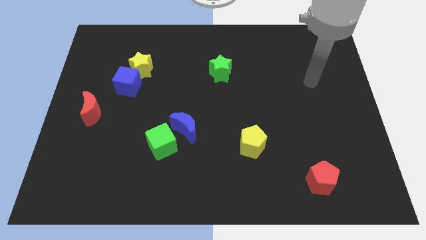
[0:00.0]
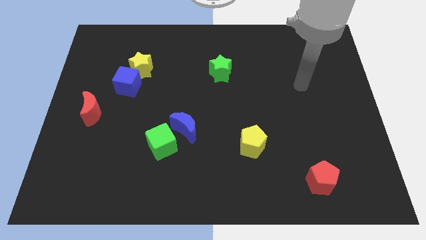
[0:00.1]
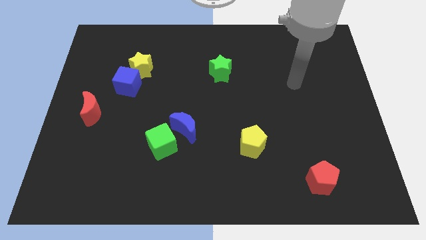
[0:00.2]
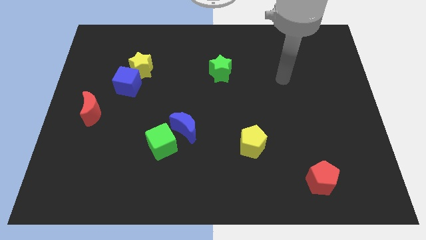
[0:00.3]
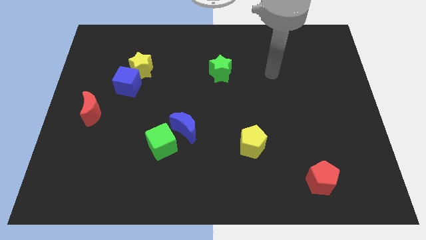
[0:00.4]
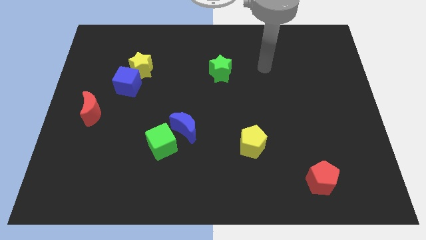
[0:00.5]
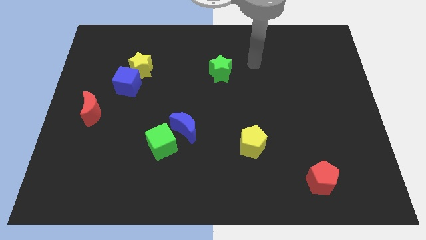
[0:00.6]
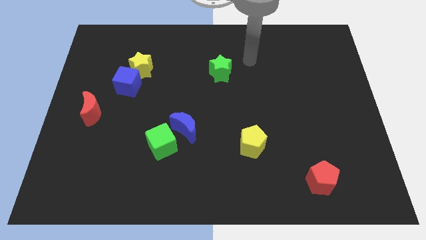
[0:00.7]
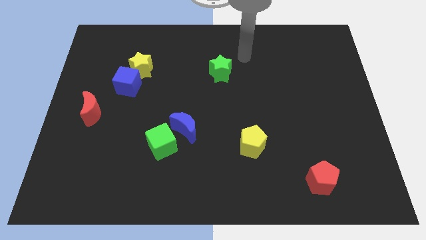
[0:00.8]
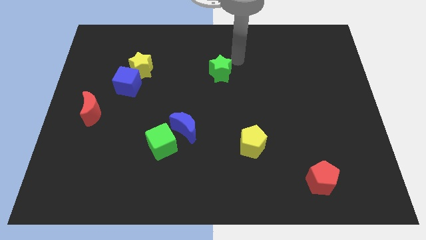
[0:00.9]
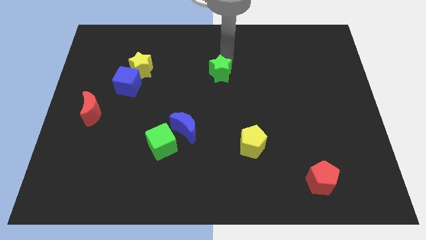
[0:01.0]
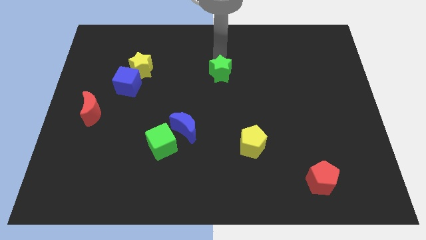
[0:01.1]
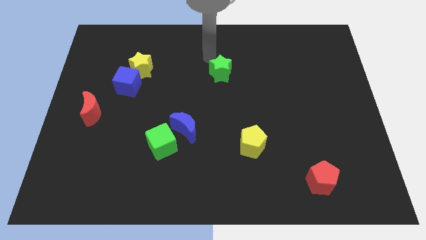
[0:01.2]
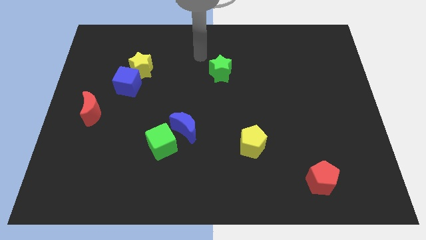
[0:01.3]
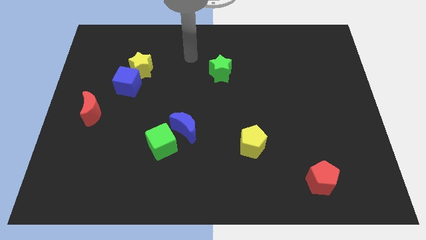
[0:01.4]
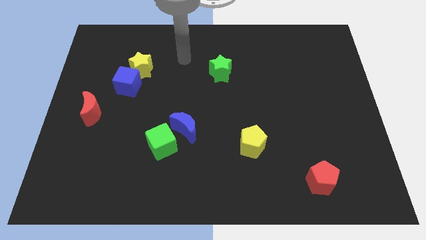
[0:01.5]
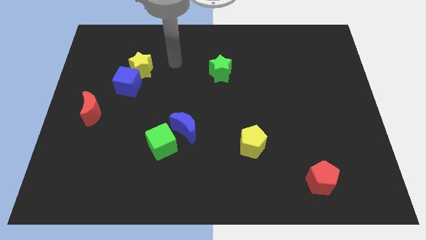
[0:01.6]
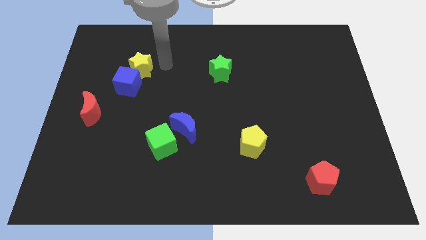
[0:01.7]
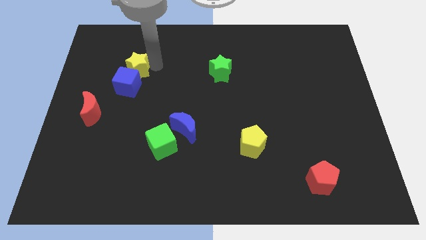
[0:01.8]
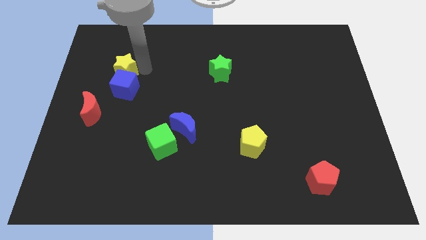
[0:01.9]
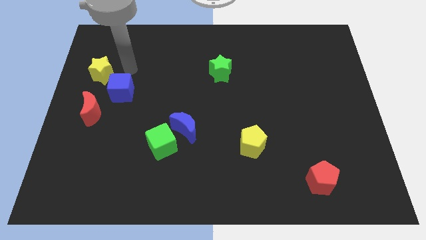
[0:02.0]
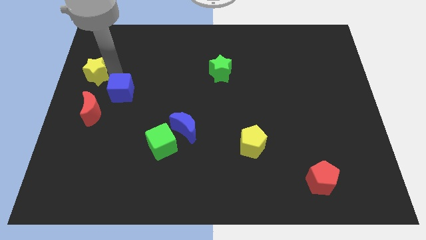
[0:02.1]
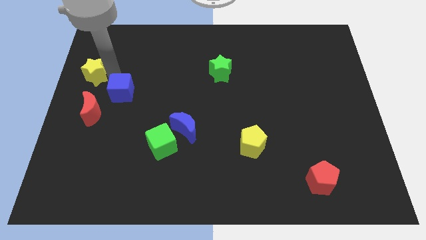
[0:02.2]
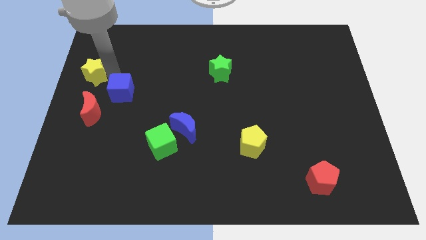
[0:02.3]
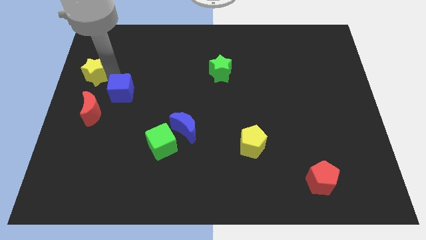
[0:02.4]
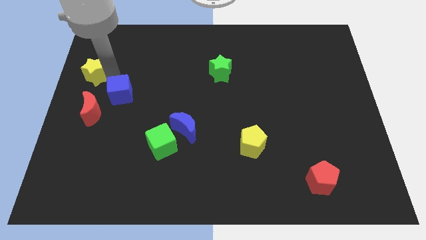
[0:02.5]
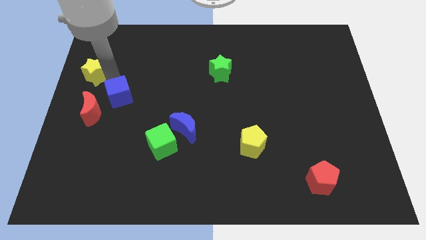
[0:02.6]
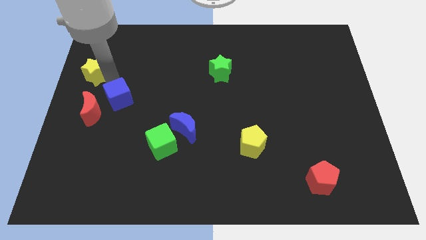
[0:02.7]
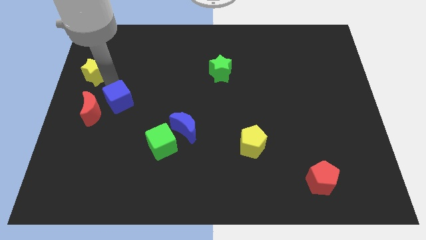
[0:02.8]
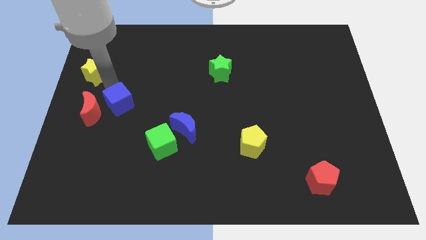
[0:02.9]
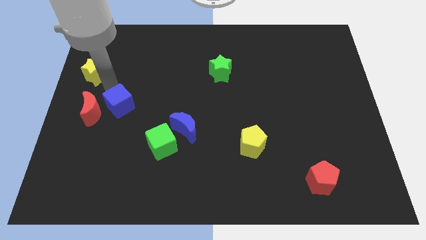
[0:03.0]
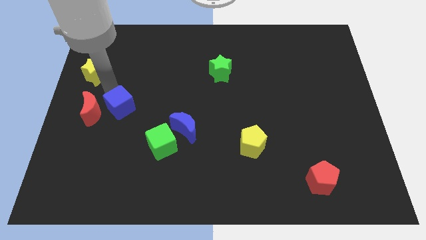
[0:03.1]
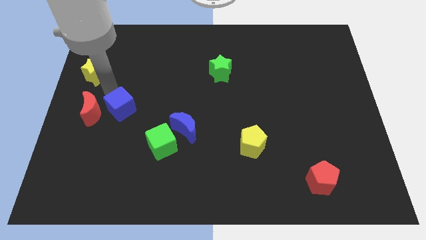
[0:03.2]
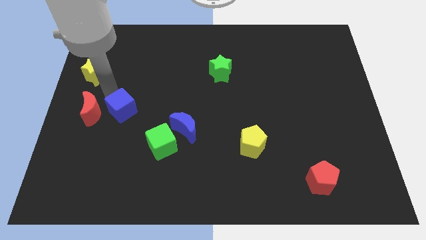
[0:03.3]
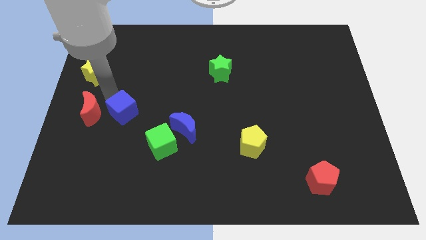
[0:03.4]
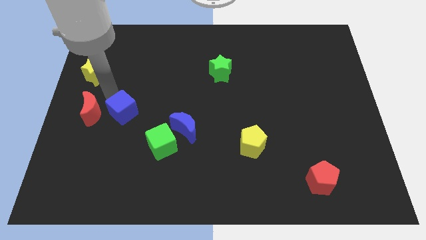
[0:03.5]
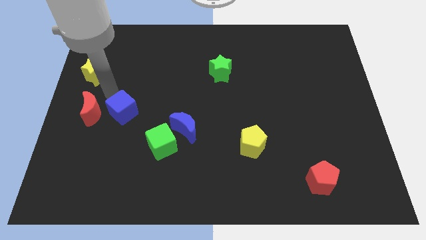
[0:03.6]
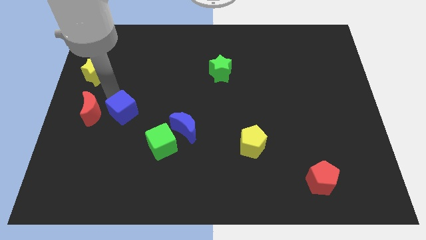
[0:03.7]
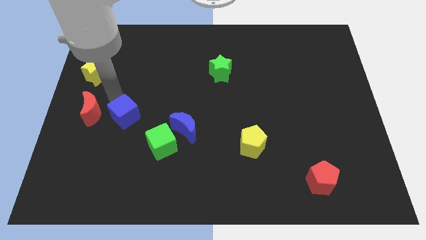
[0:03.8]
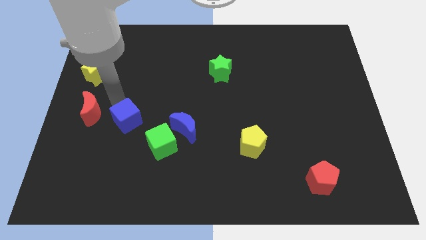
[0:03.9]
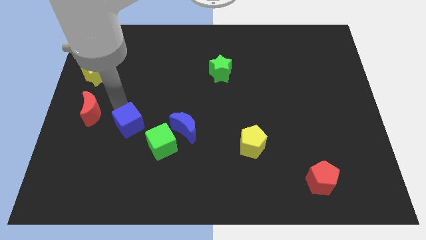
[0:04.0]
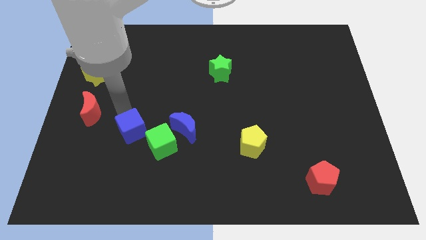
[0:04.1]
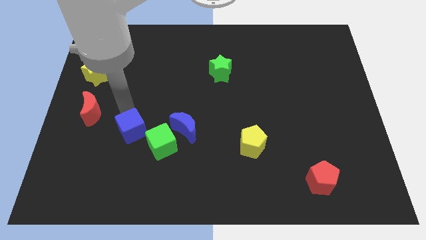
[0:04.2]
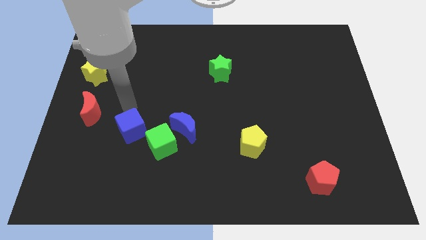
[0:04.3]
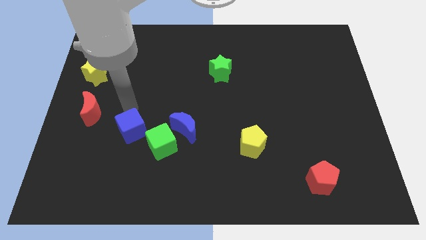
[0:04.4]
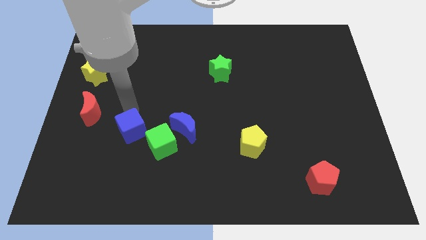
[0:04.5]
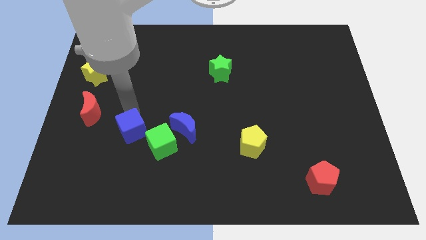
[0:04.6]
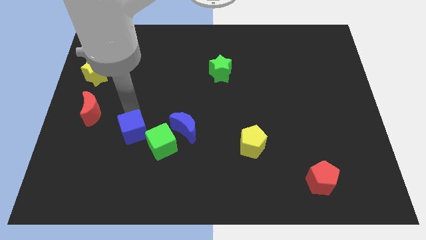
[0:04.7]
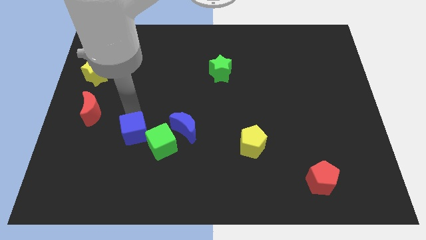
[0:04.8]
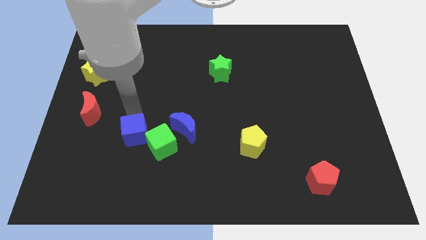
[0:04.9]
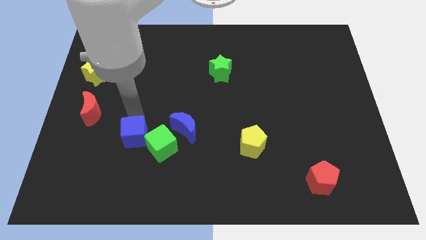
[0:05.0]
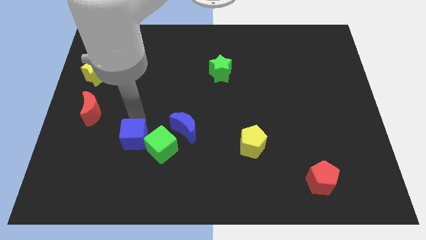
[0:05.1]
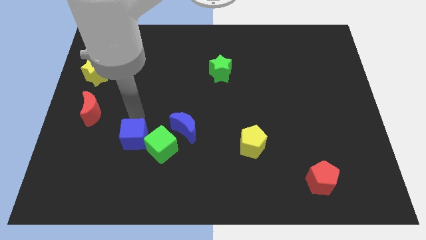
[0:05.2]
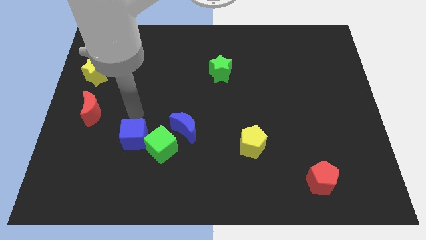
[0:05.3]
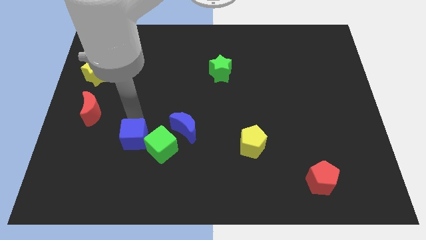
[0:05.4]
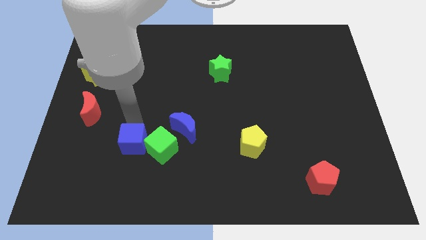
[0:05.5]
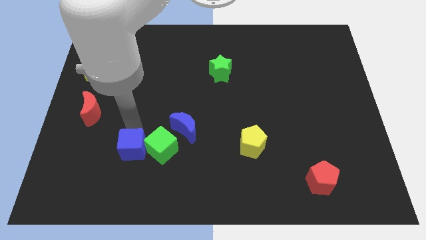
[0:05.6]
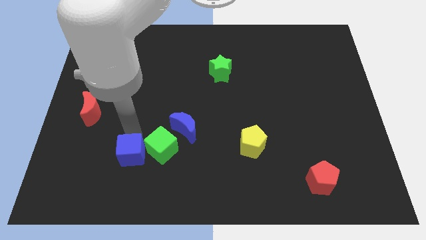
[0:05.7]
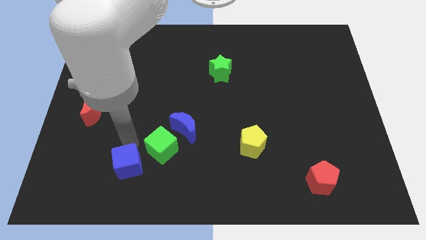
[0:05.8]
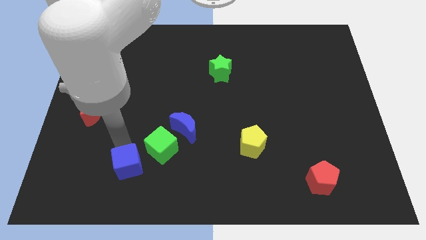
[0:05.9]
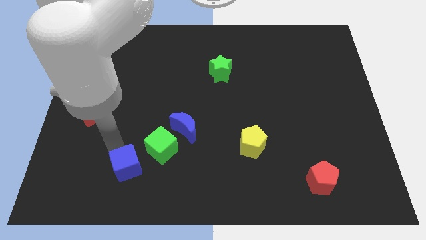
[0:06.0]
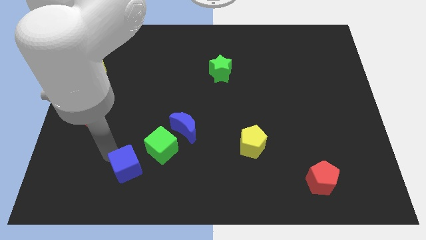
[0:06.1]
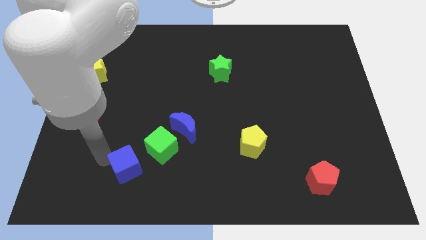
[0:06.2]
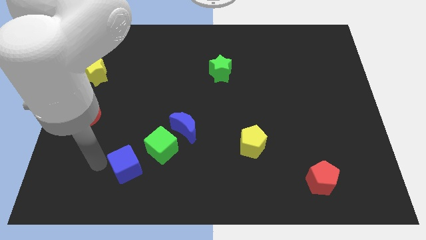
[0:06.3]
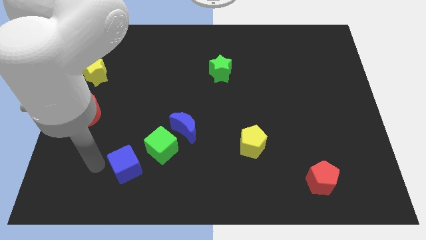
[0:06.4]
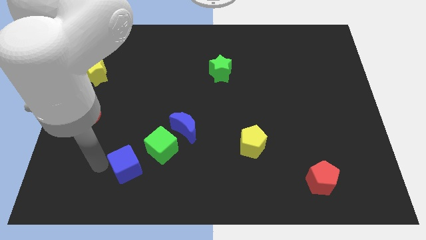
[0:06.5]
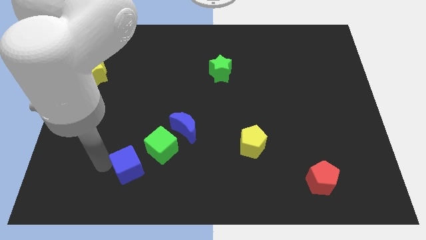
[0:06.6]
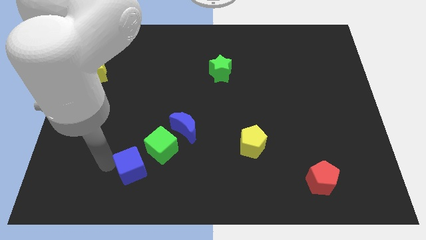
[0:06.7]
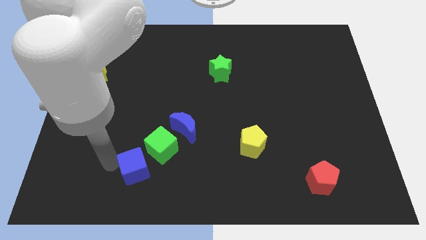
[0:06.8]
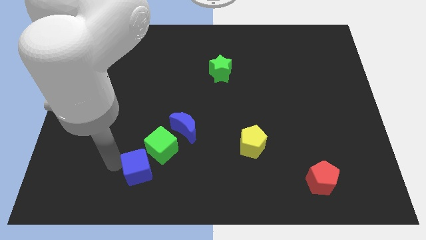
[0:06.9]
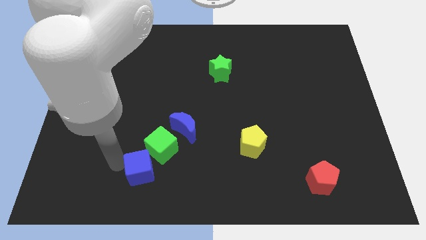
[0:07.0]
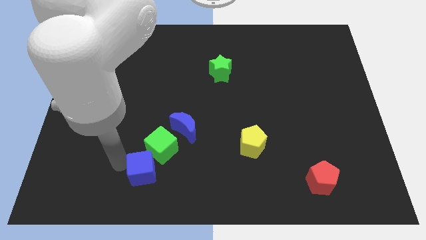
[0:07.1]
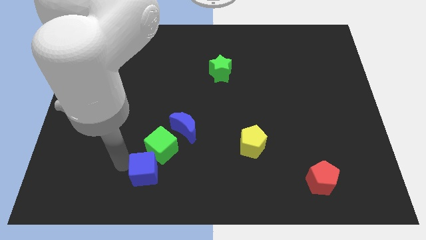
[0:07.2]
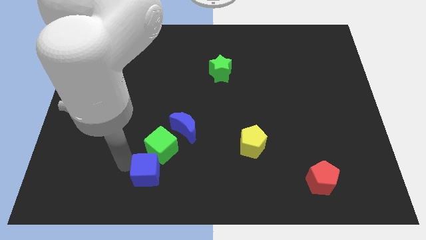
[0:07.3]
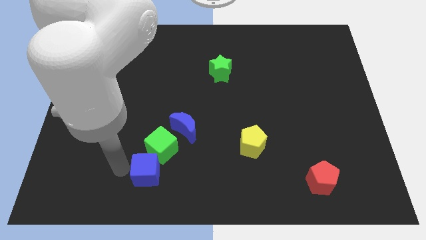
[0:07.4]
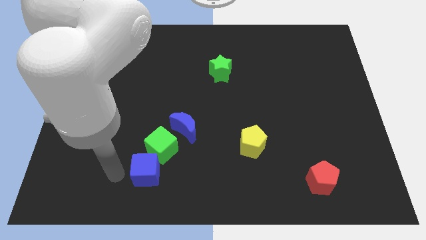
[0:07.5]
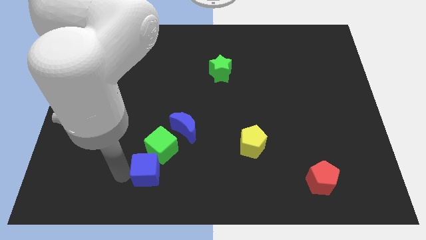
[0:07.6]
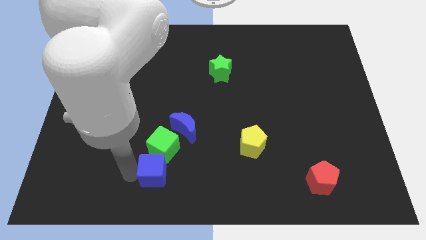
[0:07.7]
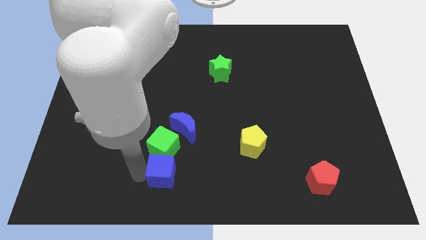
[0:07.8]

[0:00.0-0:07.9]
put the blue cube to the bottom of the blue moon
